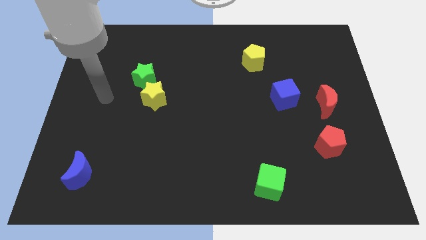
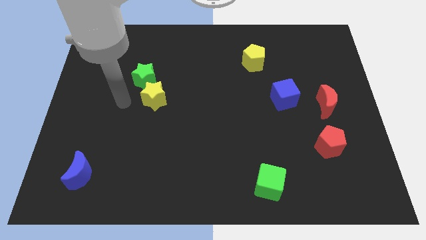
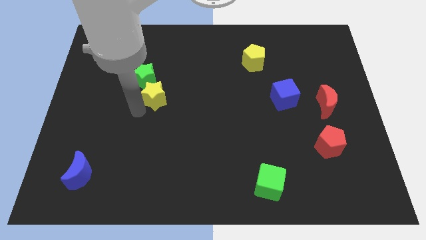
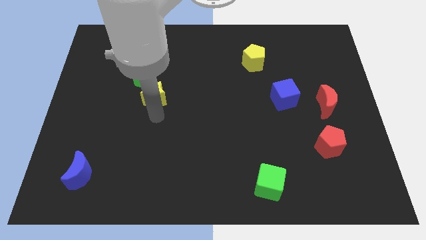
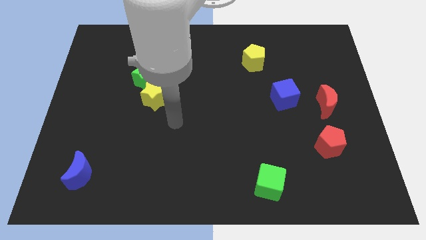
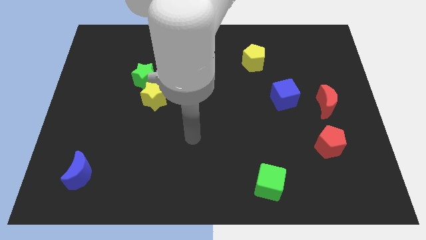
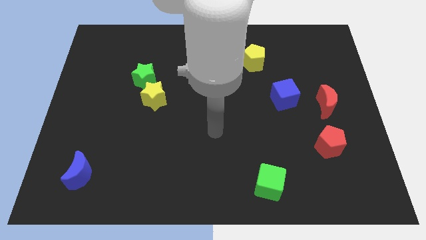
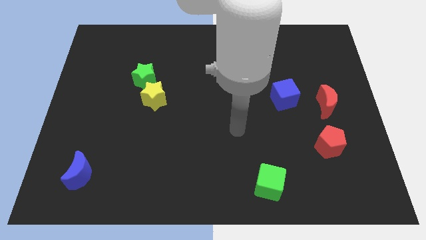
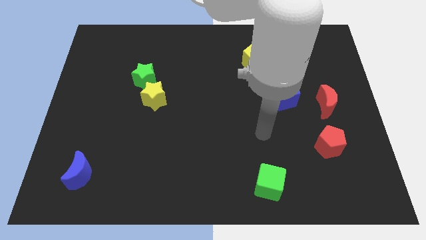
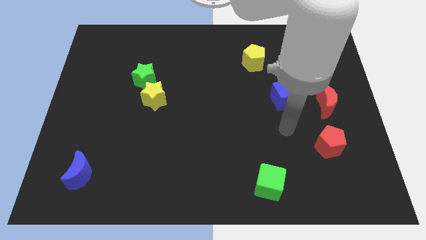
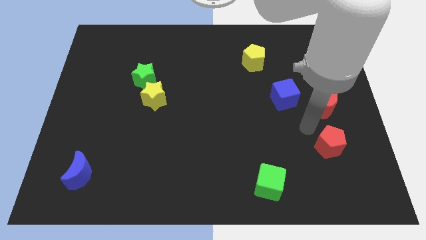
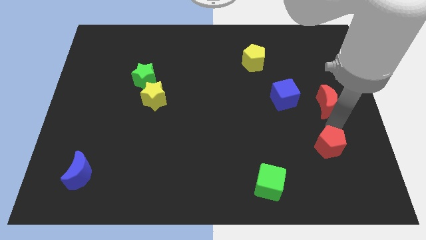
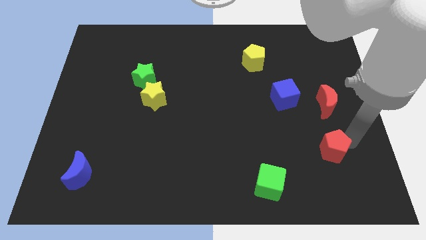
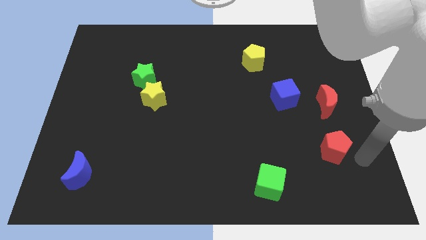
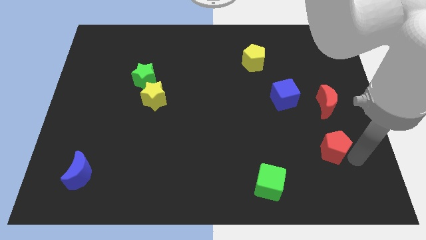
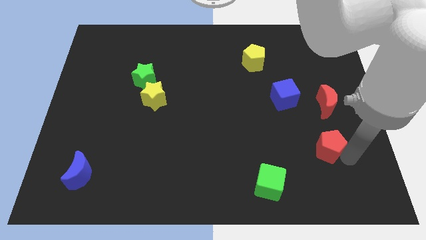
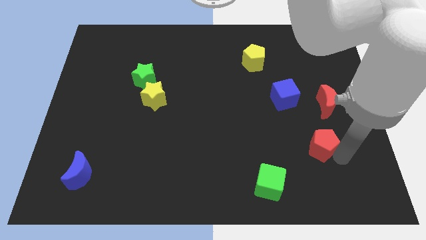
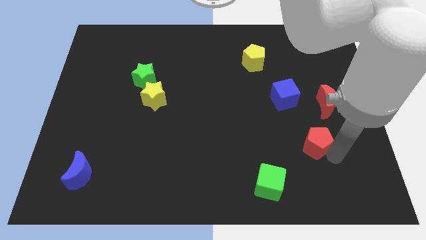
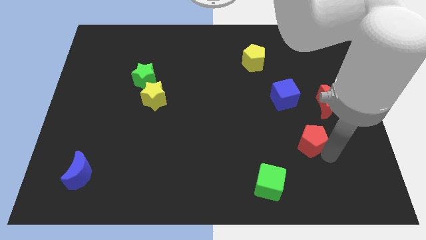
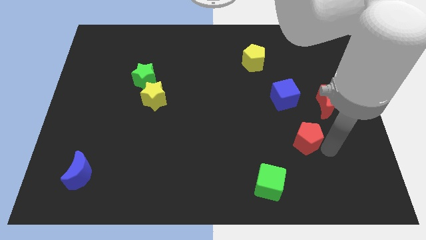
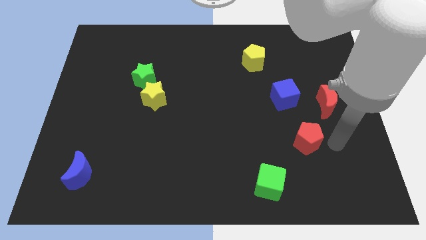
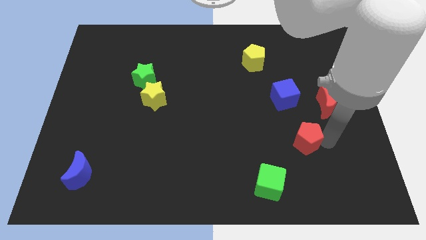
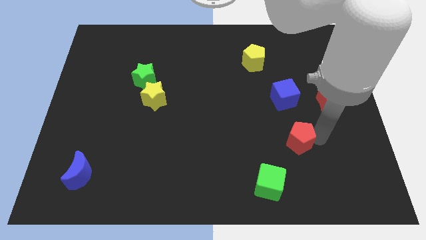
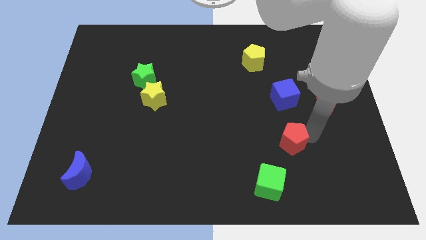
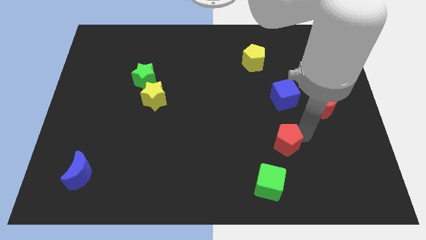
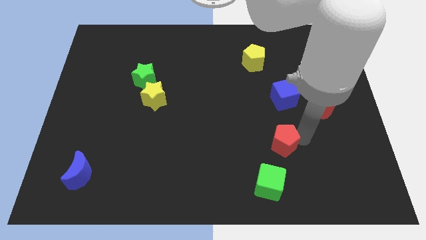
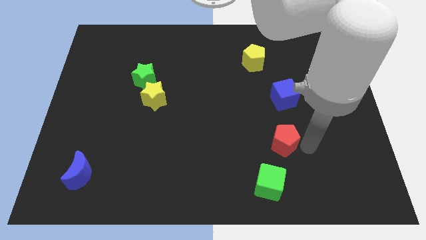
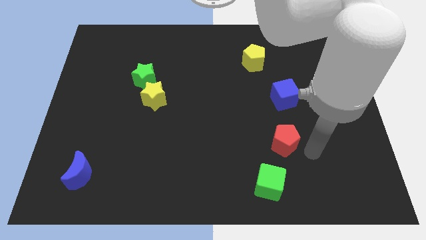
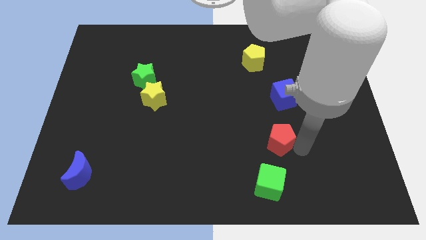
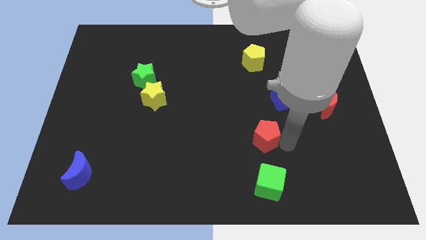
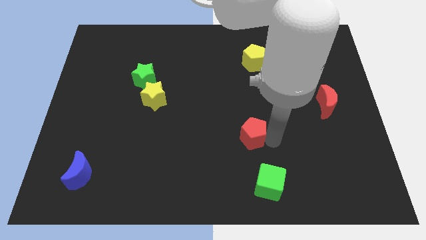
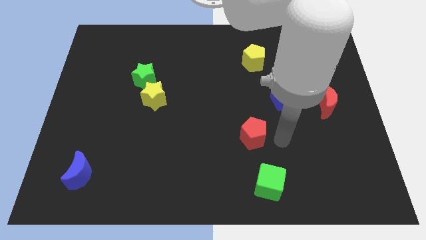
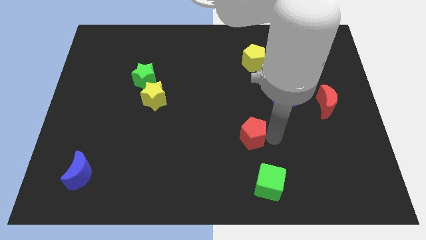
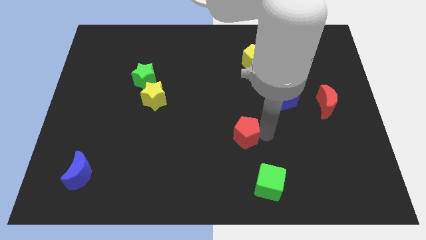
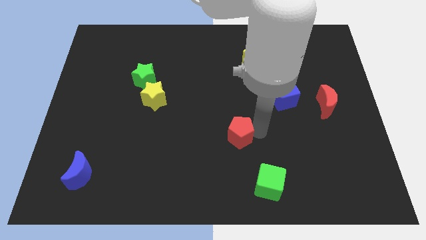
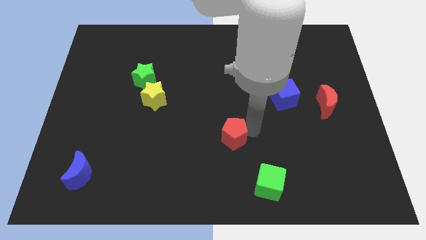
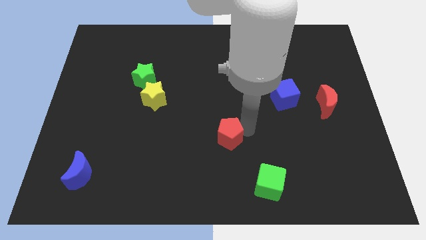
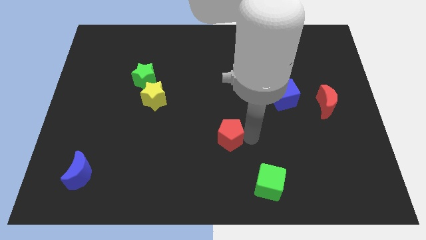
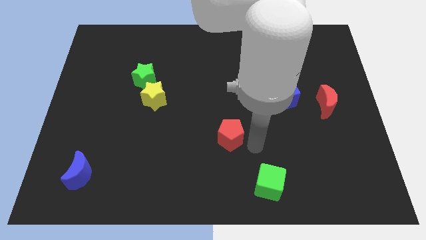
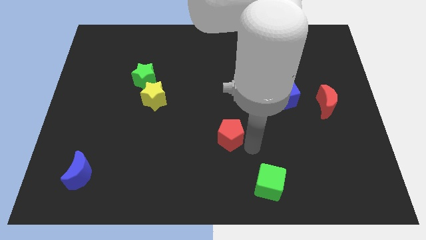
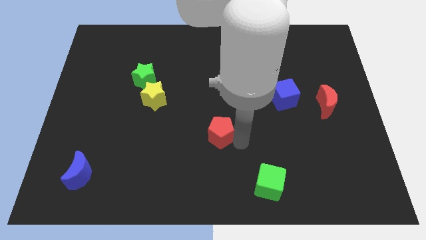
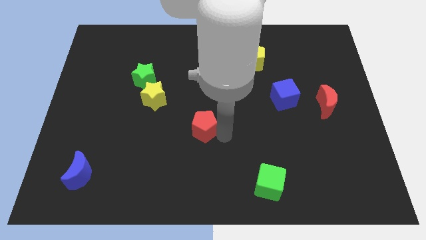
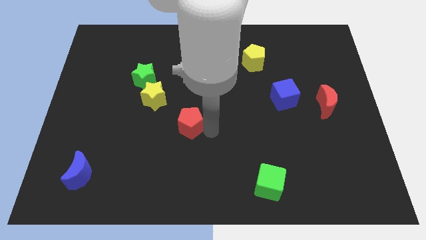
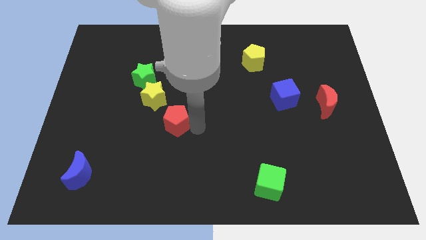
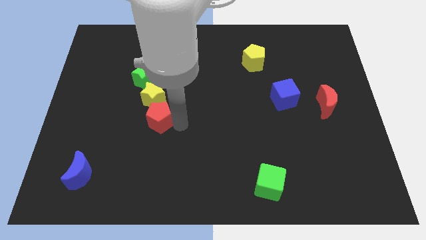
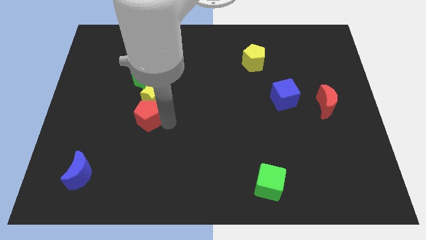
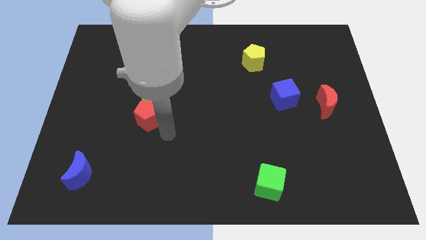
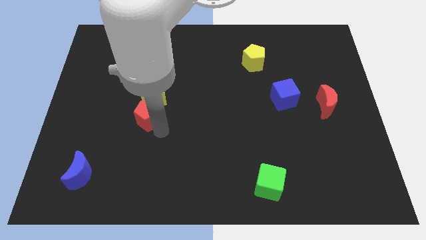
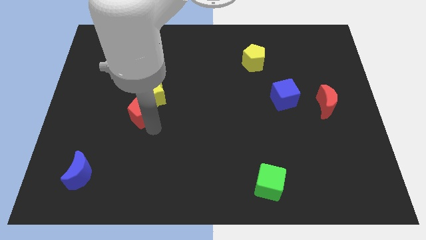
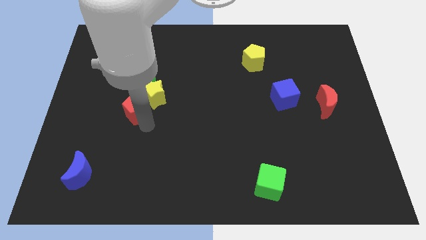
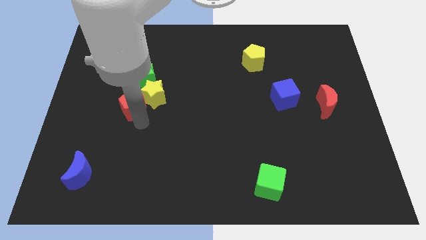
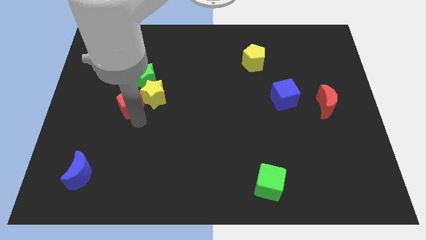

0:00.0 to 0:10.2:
slide the red pentagon to the bottom left side of the green star
